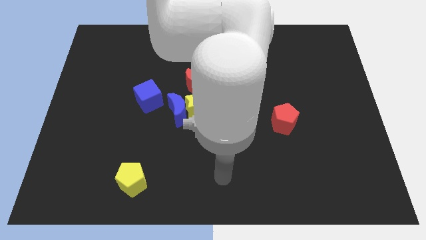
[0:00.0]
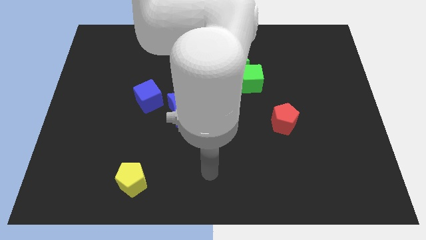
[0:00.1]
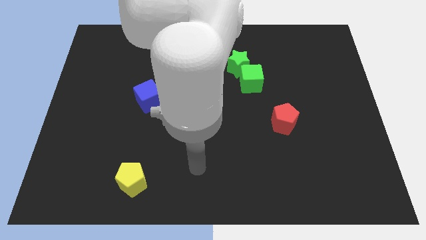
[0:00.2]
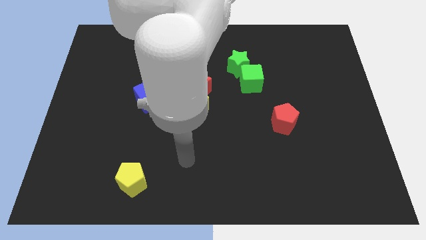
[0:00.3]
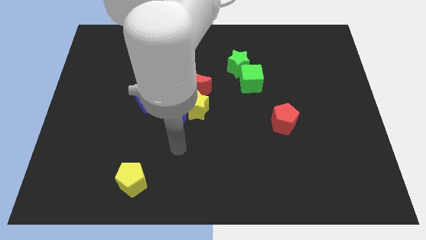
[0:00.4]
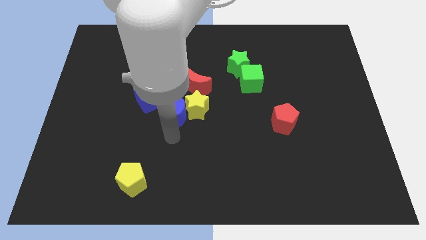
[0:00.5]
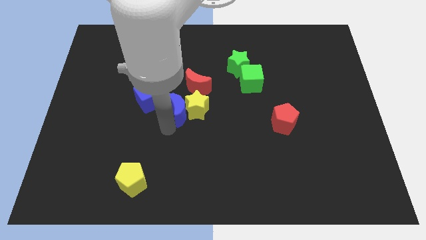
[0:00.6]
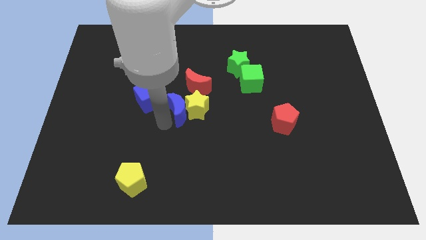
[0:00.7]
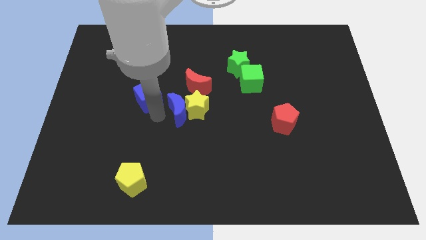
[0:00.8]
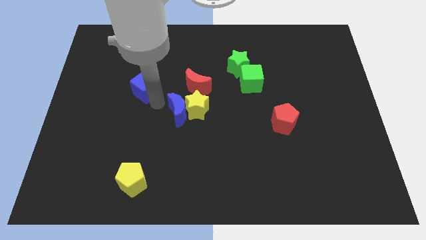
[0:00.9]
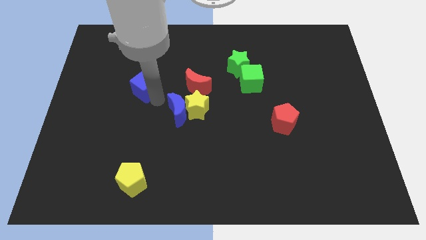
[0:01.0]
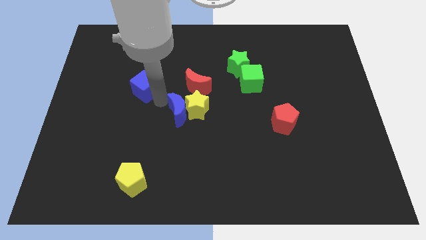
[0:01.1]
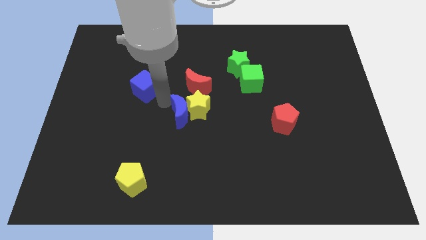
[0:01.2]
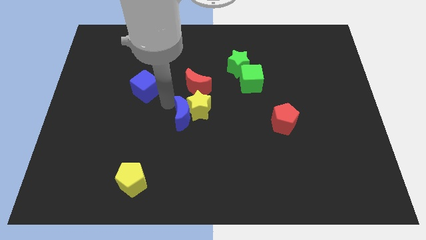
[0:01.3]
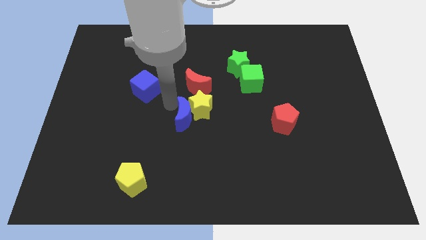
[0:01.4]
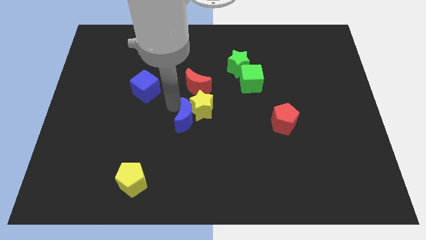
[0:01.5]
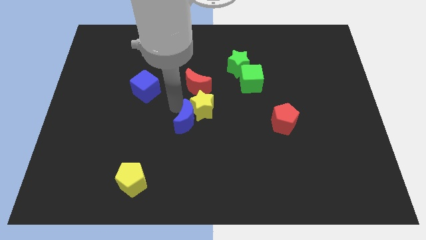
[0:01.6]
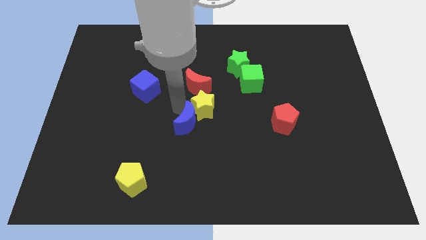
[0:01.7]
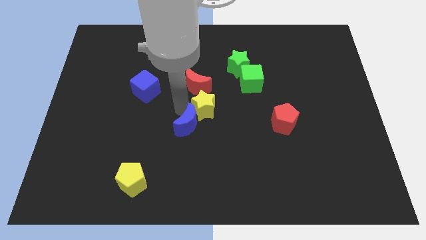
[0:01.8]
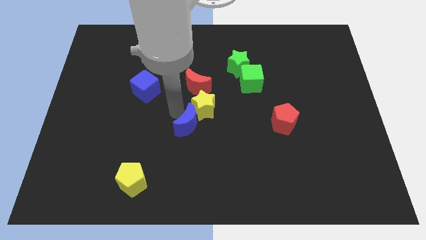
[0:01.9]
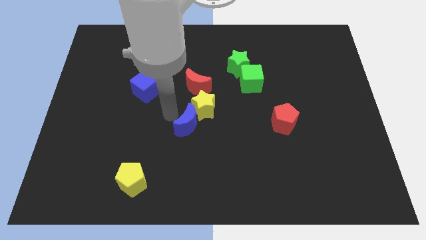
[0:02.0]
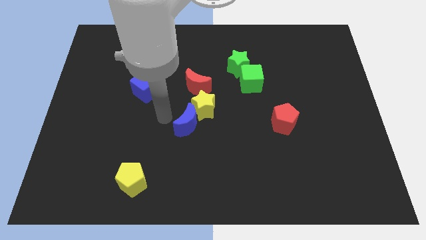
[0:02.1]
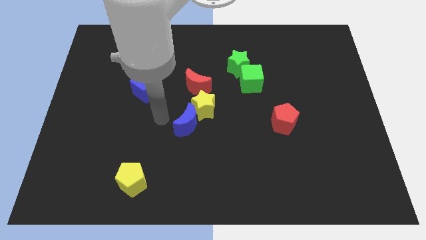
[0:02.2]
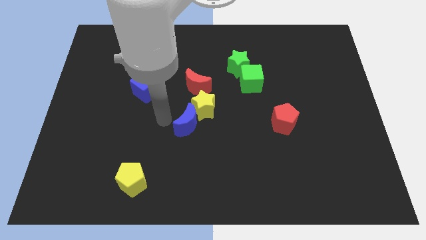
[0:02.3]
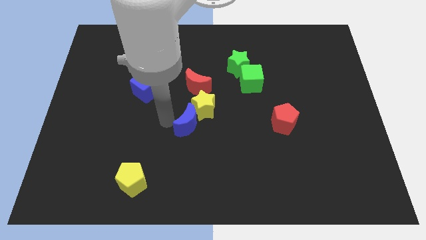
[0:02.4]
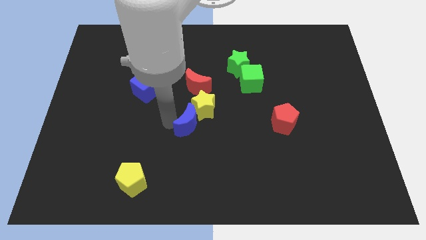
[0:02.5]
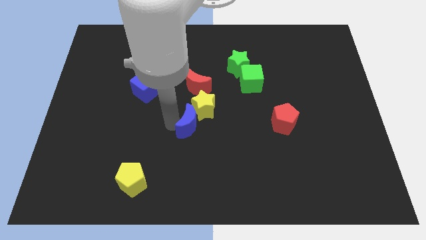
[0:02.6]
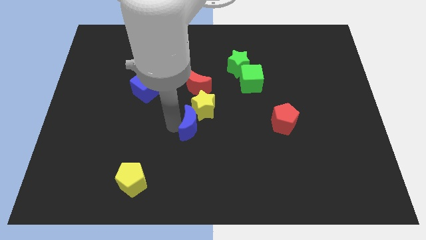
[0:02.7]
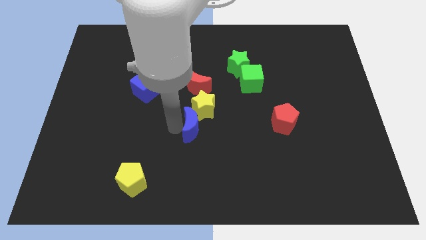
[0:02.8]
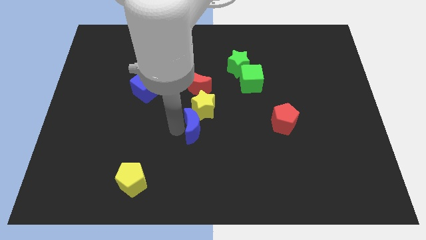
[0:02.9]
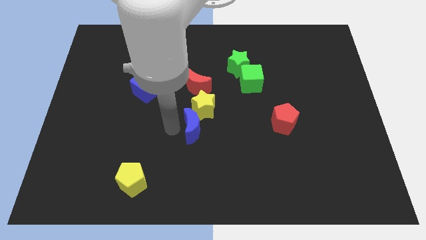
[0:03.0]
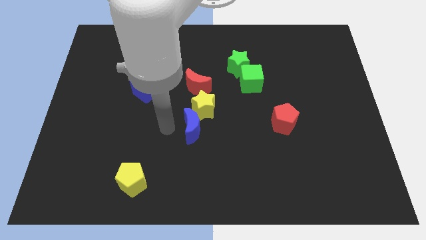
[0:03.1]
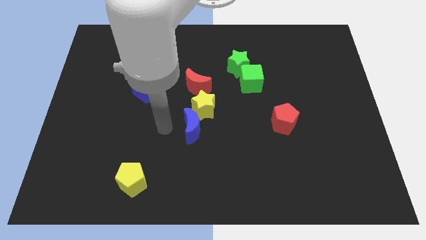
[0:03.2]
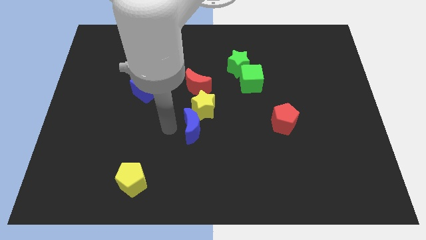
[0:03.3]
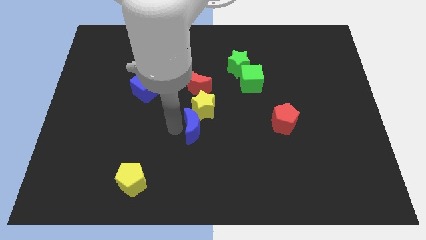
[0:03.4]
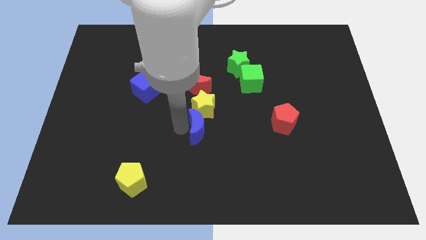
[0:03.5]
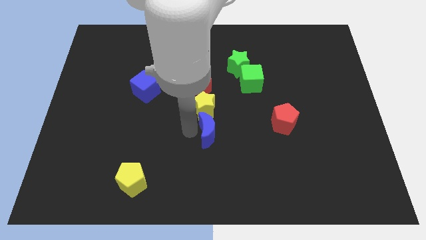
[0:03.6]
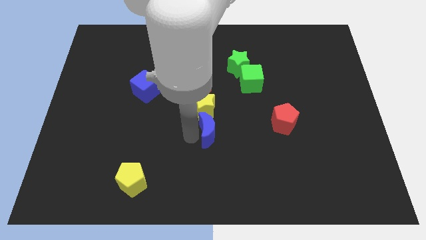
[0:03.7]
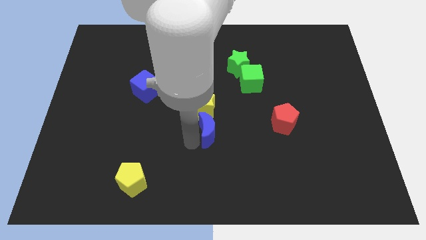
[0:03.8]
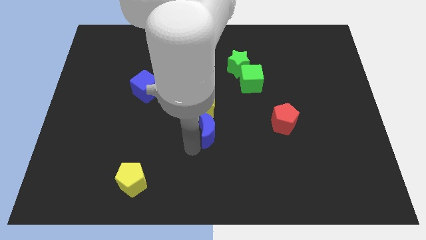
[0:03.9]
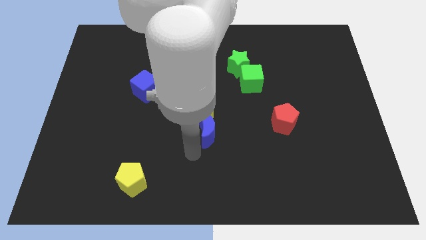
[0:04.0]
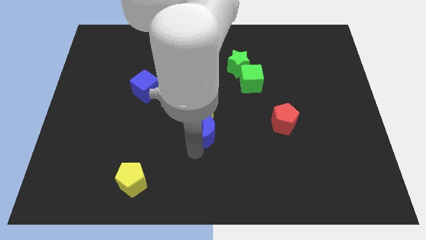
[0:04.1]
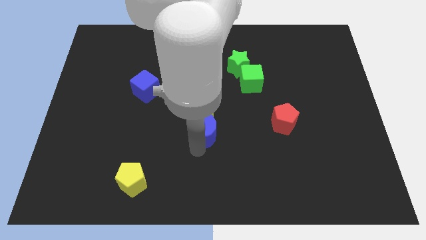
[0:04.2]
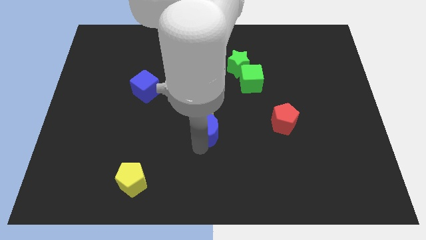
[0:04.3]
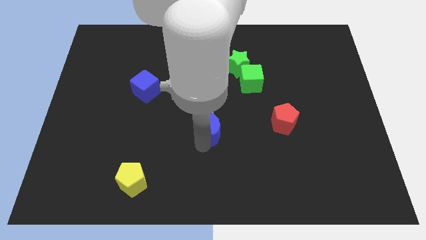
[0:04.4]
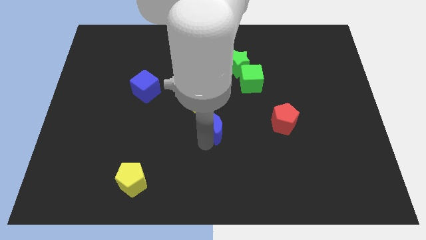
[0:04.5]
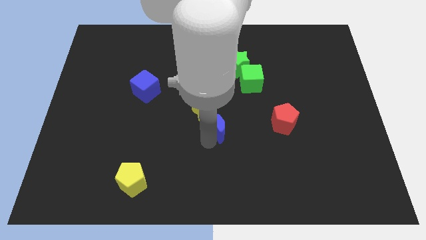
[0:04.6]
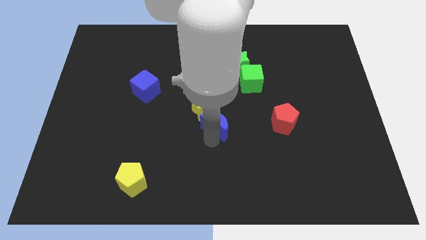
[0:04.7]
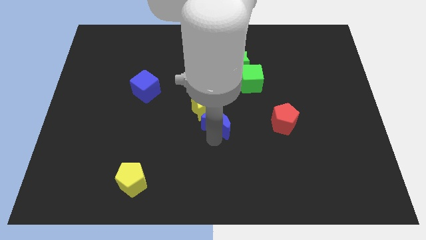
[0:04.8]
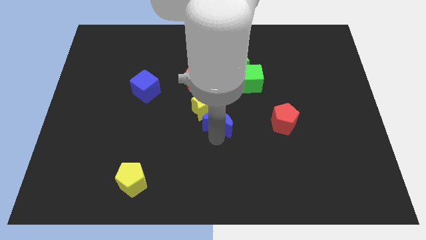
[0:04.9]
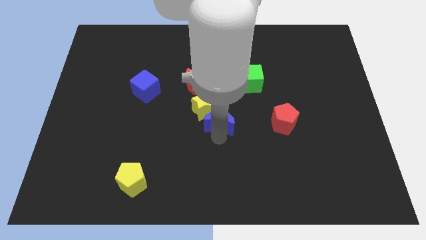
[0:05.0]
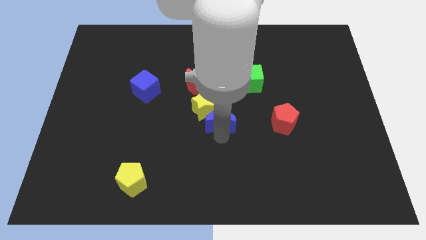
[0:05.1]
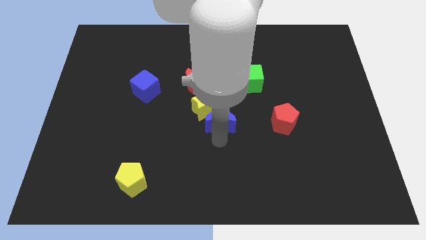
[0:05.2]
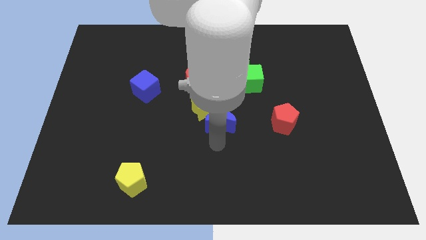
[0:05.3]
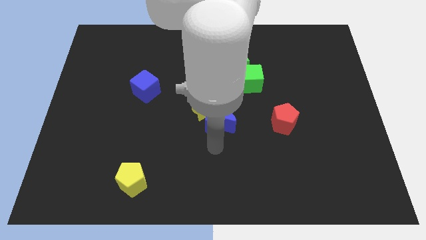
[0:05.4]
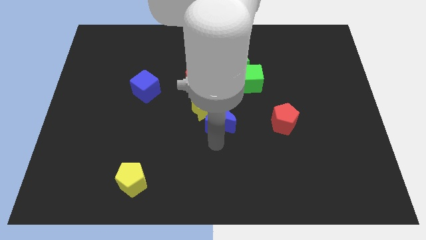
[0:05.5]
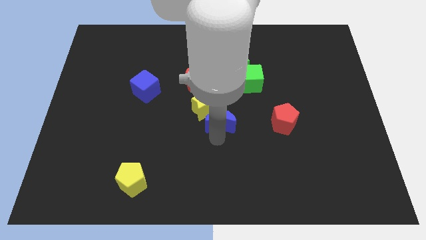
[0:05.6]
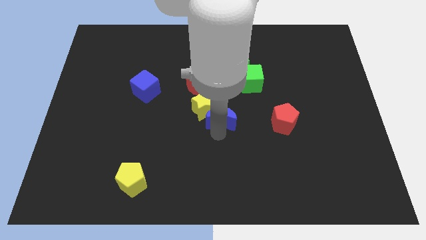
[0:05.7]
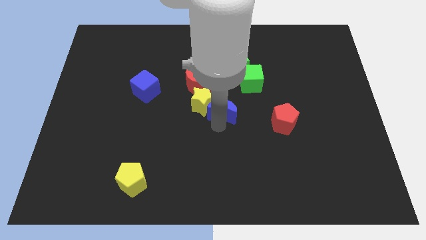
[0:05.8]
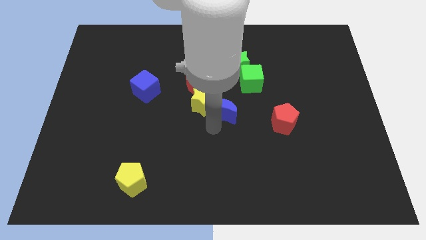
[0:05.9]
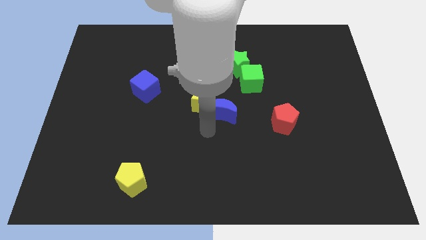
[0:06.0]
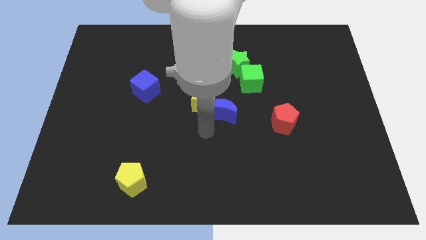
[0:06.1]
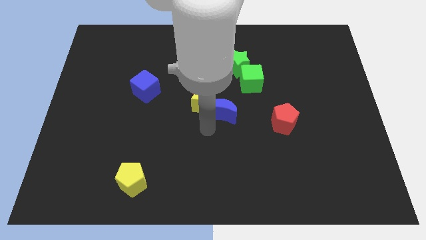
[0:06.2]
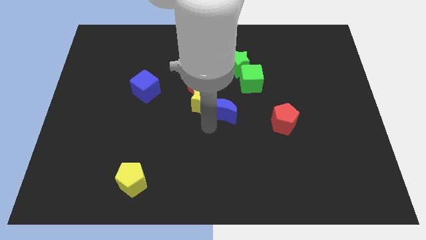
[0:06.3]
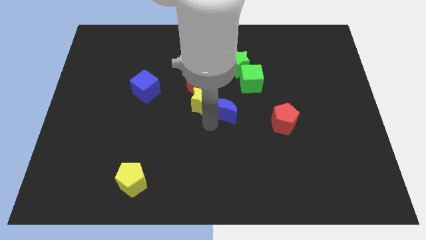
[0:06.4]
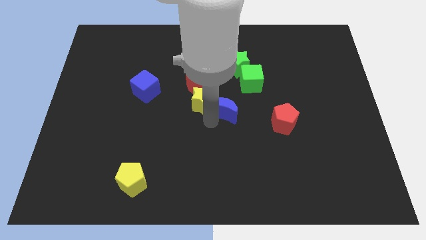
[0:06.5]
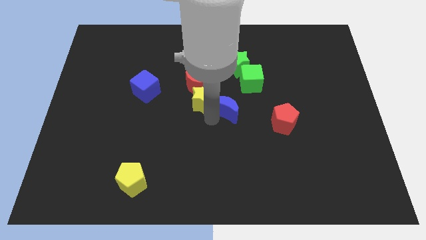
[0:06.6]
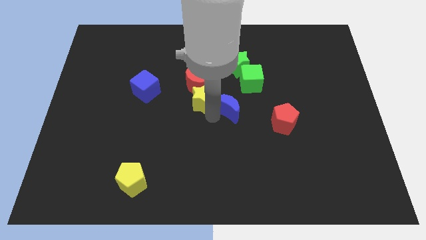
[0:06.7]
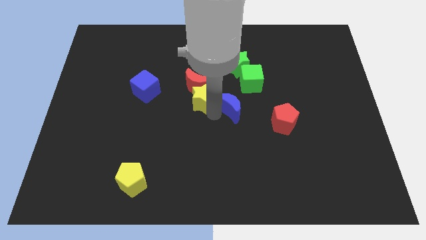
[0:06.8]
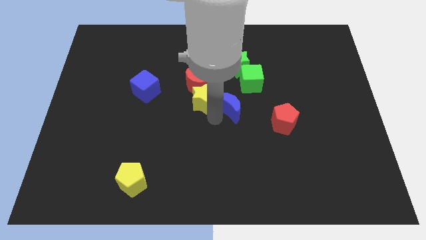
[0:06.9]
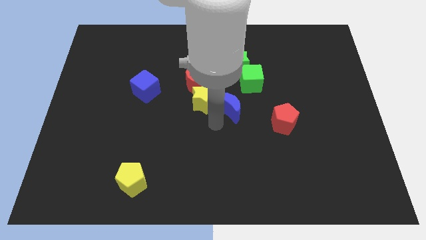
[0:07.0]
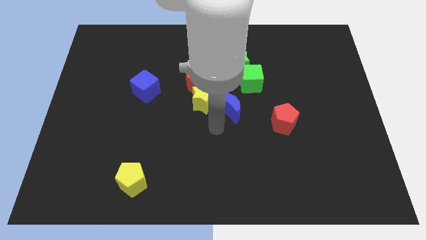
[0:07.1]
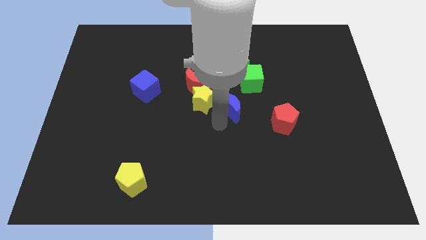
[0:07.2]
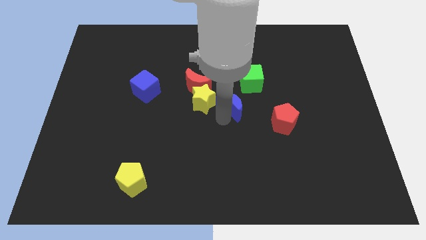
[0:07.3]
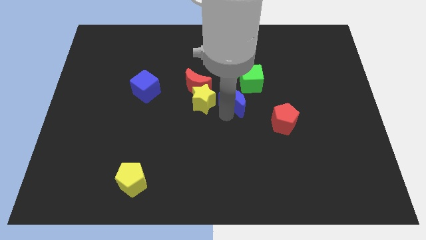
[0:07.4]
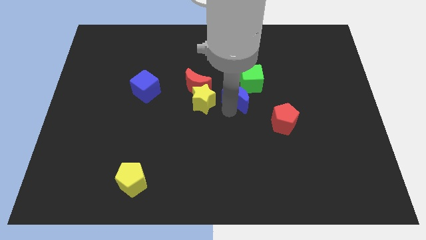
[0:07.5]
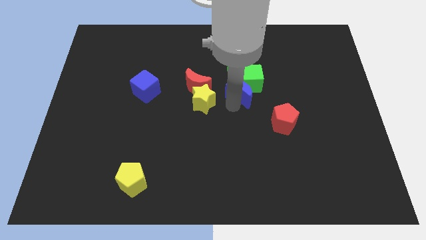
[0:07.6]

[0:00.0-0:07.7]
move the blue moon towards the green cube
